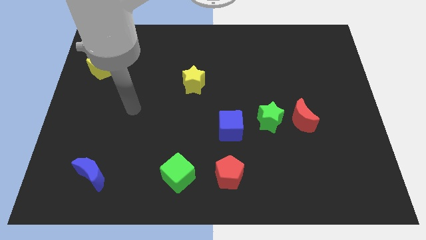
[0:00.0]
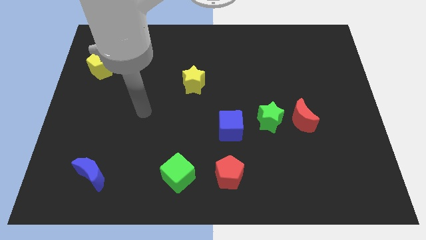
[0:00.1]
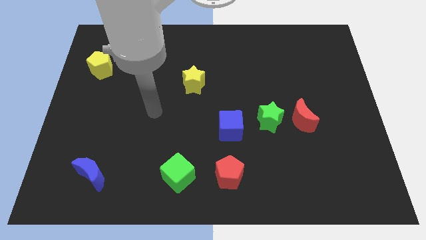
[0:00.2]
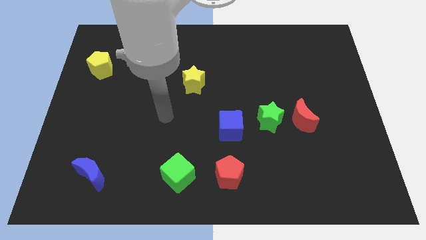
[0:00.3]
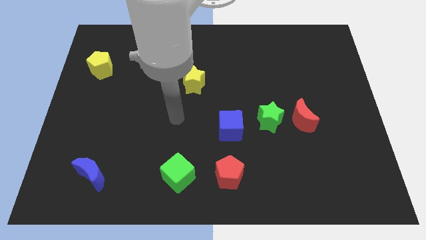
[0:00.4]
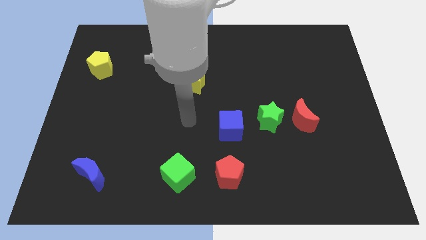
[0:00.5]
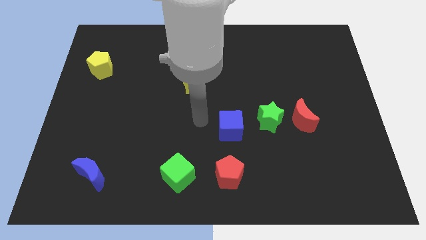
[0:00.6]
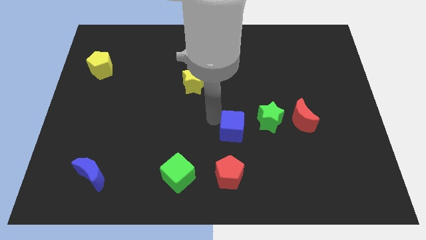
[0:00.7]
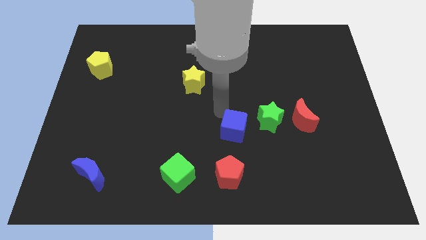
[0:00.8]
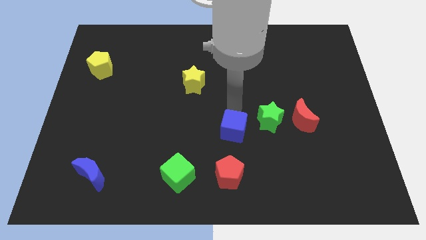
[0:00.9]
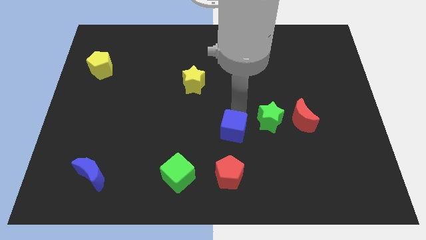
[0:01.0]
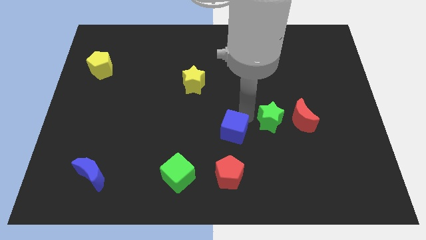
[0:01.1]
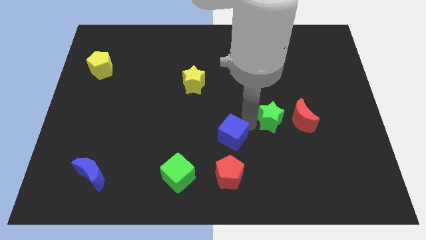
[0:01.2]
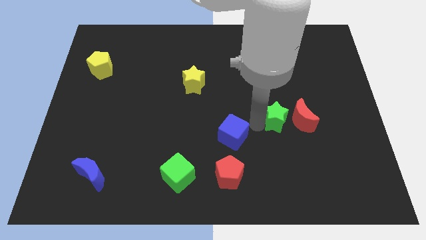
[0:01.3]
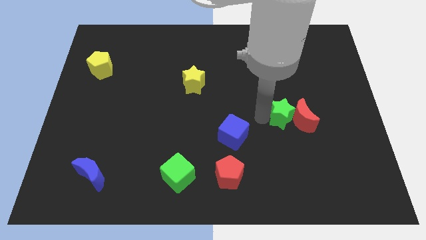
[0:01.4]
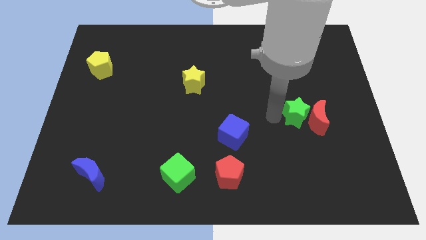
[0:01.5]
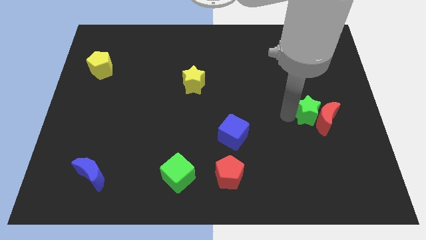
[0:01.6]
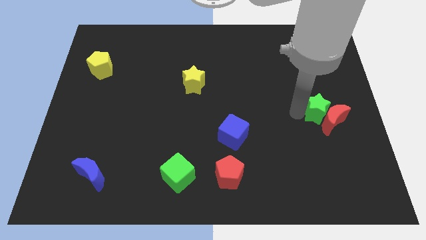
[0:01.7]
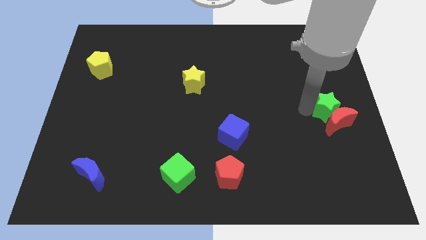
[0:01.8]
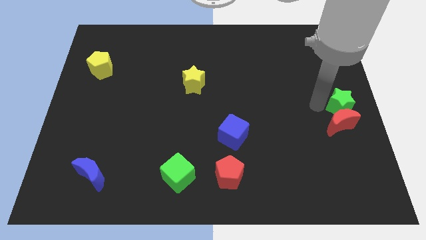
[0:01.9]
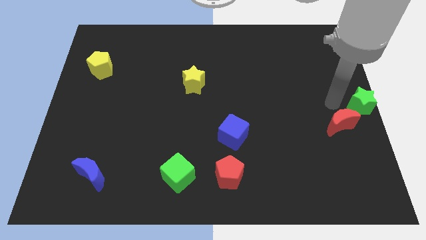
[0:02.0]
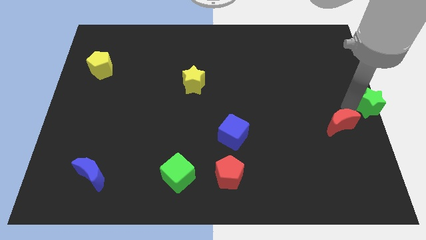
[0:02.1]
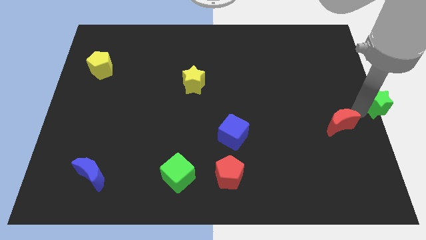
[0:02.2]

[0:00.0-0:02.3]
pull the red moon apart from the green star

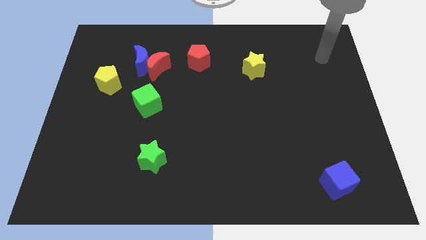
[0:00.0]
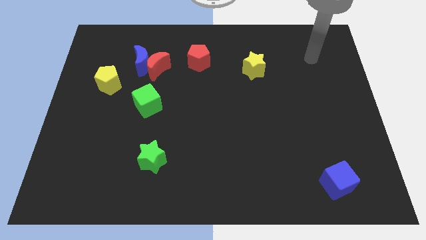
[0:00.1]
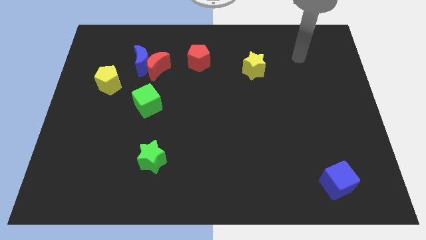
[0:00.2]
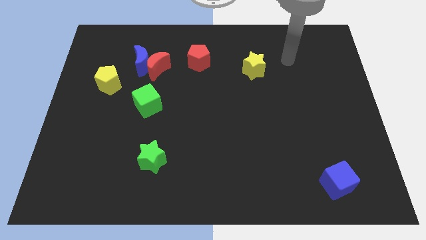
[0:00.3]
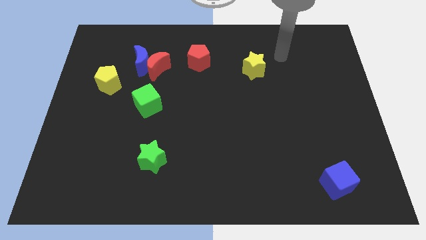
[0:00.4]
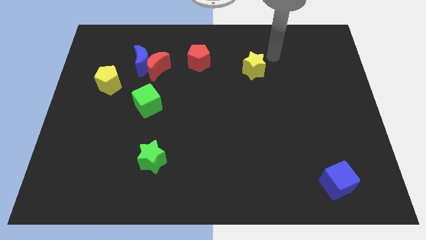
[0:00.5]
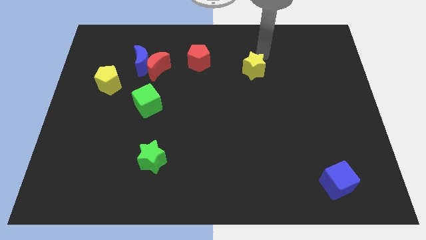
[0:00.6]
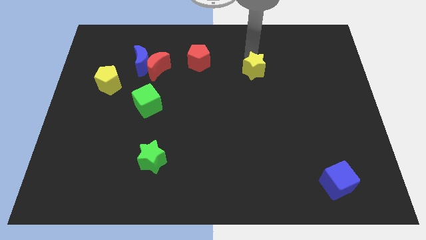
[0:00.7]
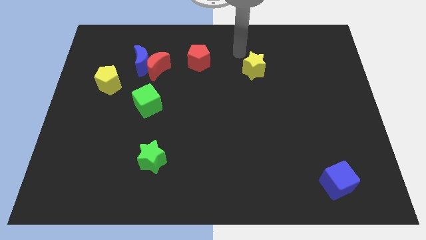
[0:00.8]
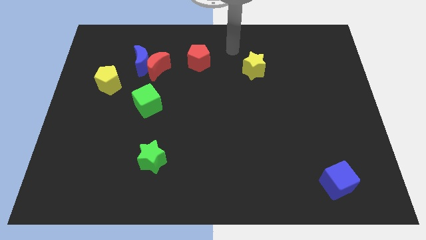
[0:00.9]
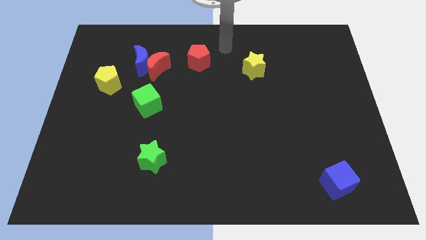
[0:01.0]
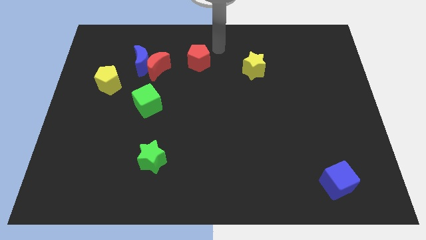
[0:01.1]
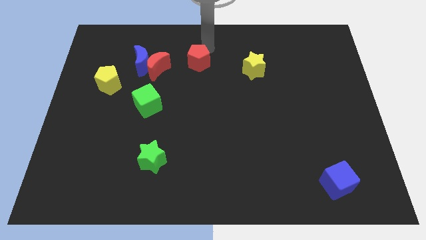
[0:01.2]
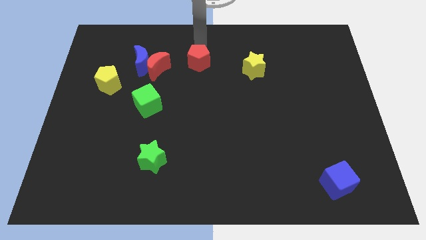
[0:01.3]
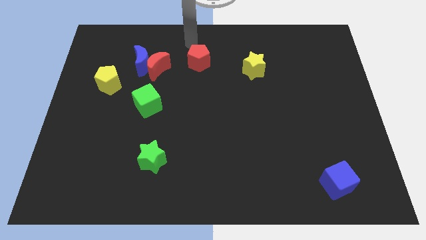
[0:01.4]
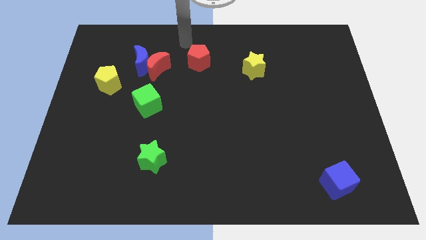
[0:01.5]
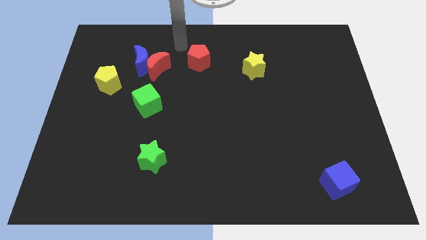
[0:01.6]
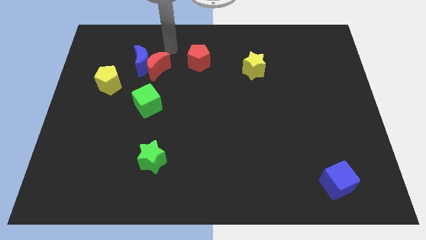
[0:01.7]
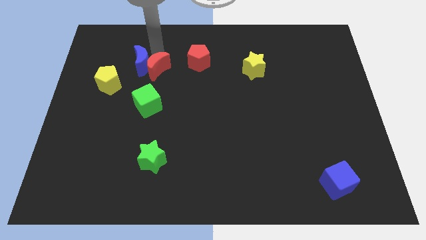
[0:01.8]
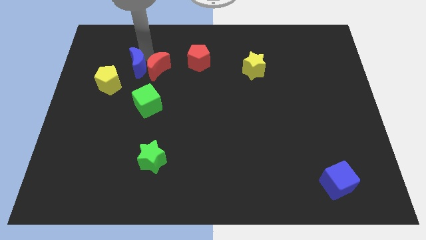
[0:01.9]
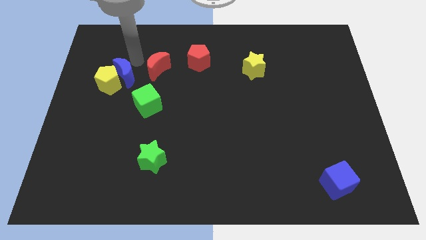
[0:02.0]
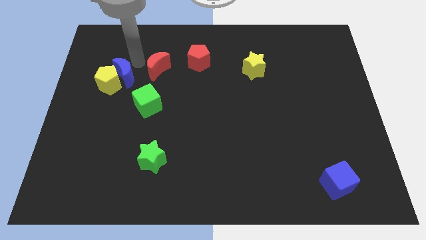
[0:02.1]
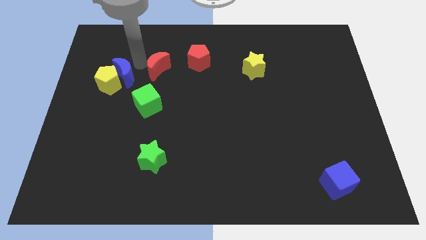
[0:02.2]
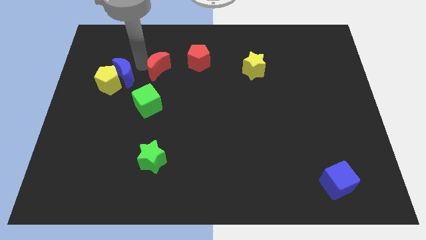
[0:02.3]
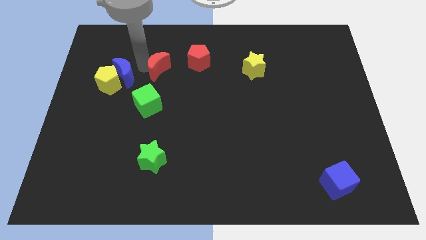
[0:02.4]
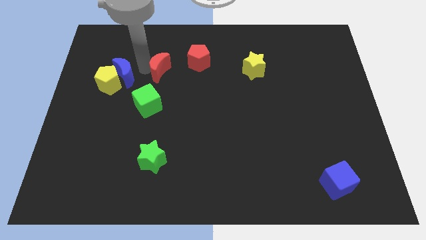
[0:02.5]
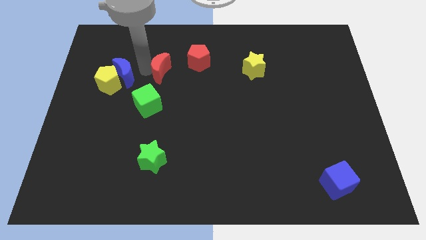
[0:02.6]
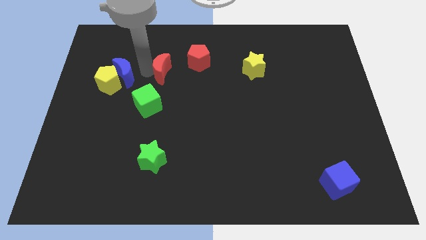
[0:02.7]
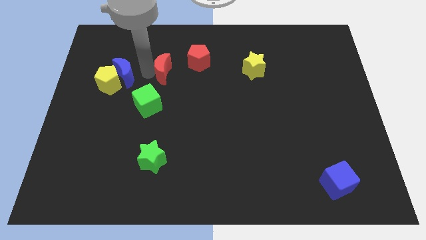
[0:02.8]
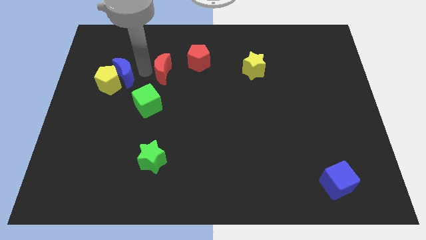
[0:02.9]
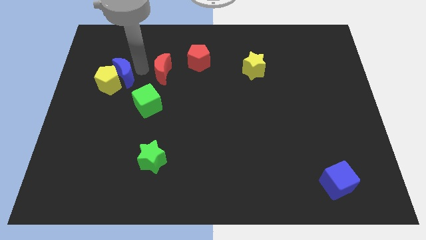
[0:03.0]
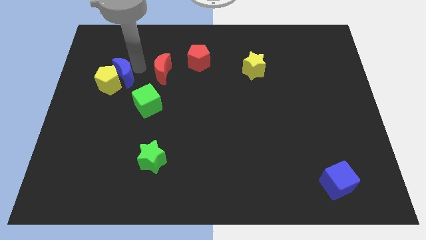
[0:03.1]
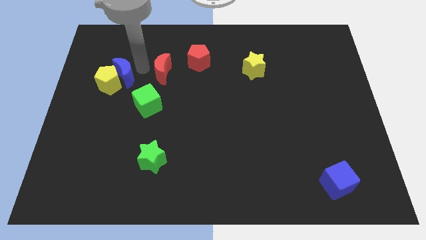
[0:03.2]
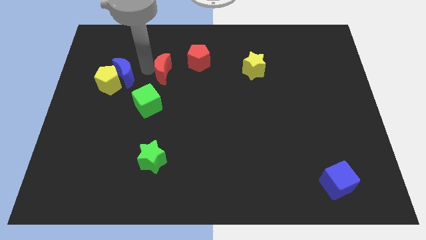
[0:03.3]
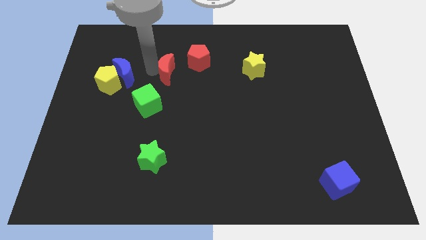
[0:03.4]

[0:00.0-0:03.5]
separate the red moon from the blue moon

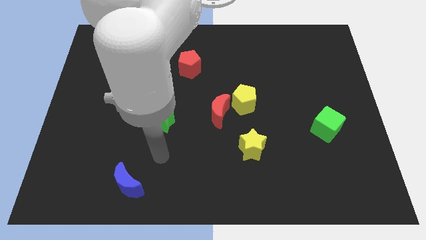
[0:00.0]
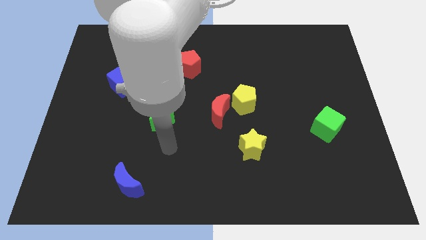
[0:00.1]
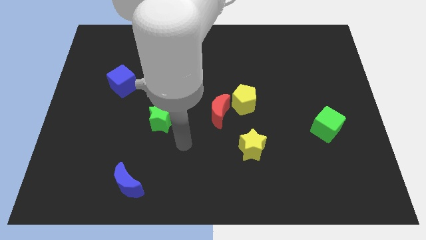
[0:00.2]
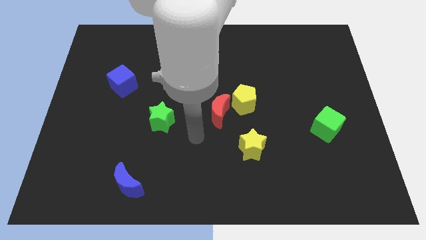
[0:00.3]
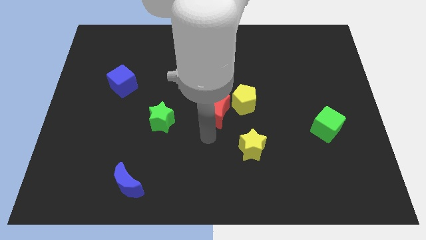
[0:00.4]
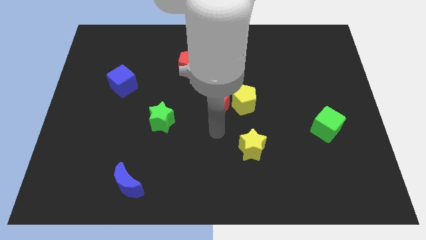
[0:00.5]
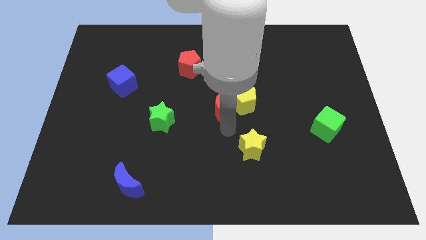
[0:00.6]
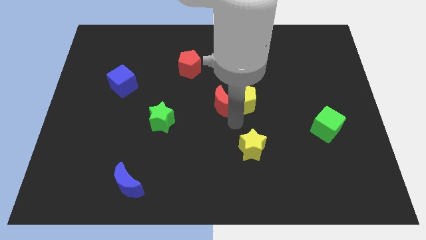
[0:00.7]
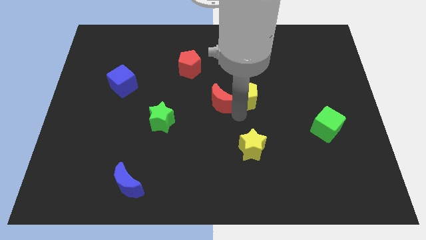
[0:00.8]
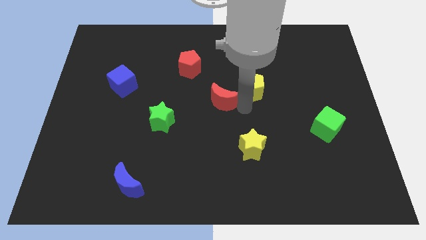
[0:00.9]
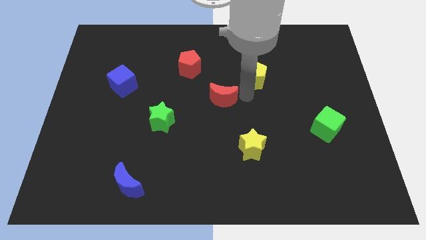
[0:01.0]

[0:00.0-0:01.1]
separate the red moon from the yellow pentagon

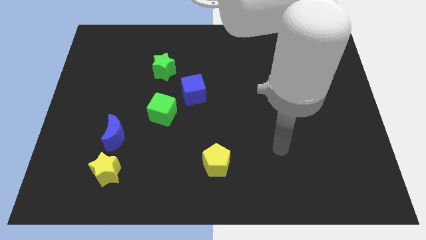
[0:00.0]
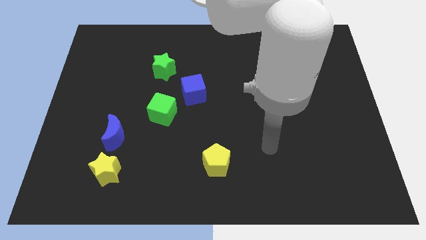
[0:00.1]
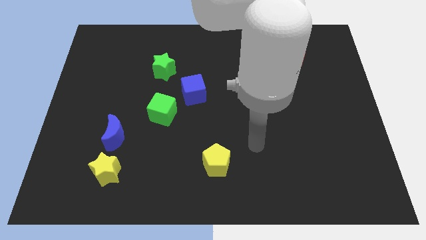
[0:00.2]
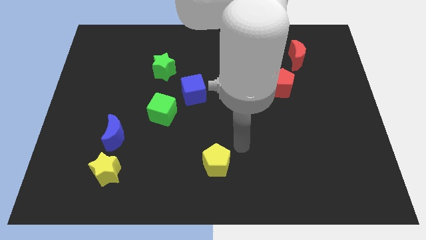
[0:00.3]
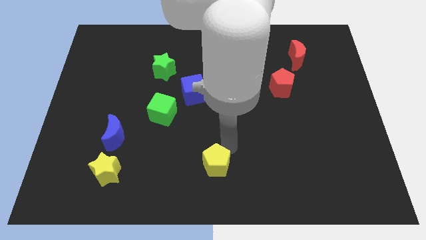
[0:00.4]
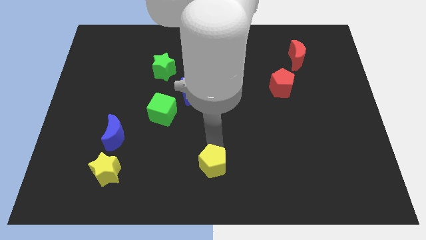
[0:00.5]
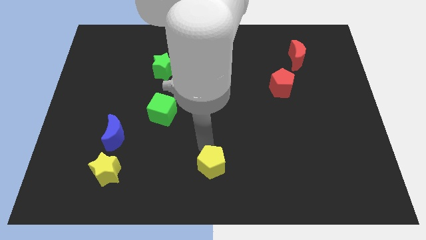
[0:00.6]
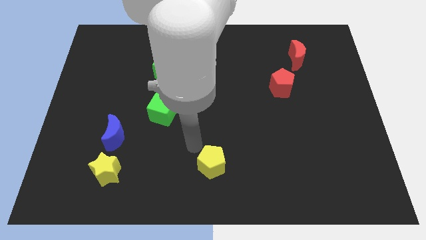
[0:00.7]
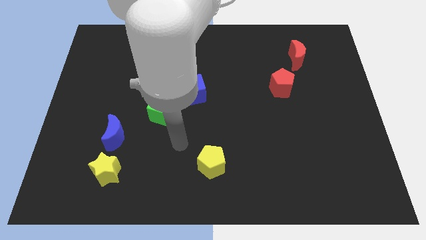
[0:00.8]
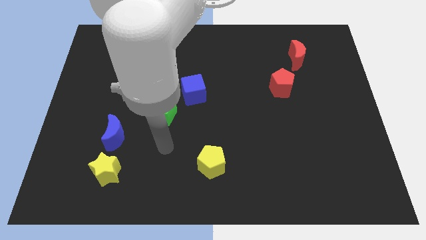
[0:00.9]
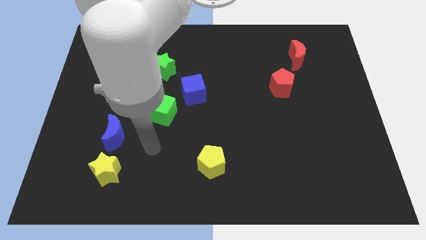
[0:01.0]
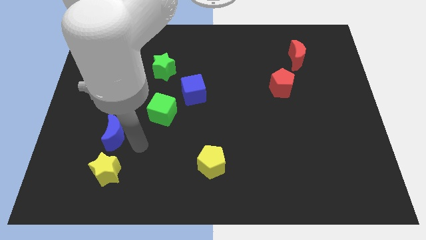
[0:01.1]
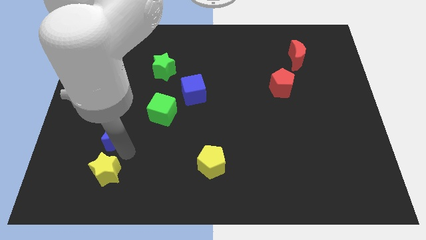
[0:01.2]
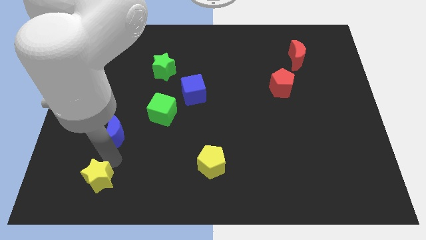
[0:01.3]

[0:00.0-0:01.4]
separate the blue moon from the yellow star

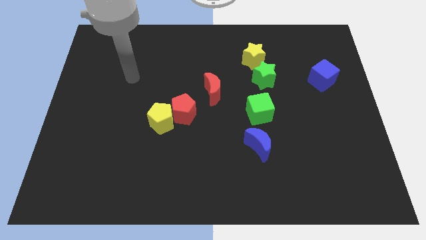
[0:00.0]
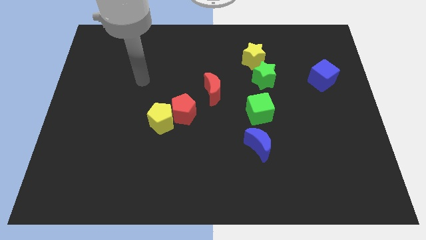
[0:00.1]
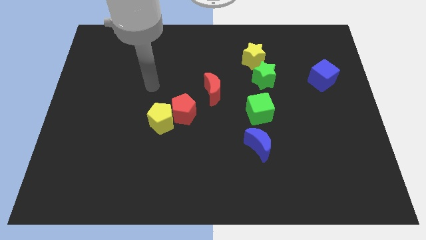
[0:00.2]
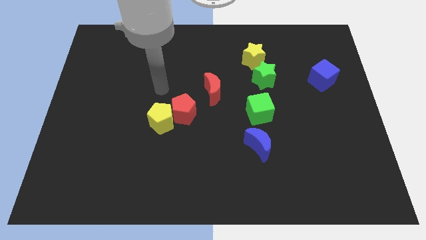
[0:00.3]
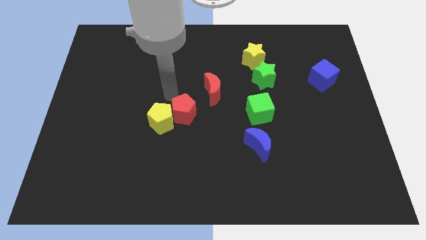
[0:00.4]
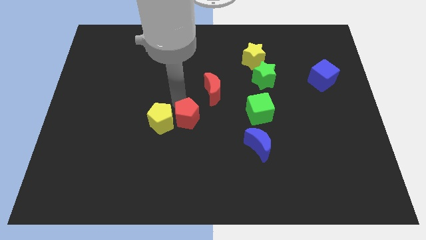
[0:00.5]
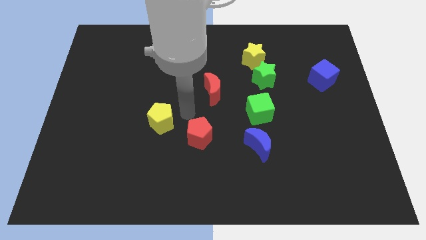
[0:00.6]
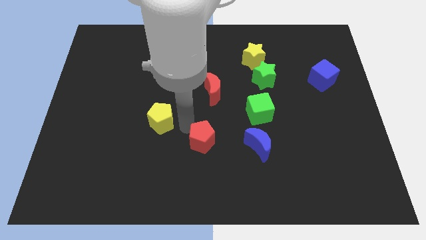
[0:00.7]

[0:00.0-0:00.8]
separate the yellow pentagon from the red pentagon
